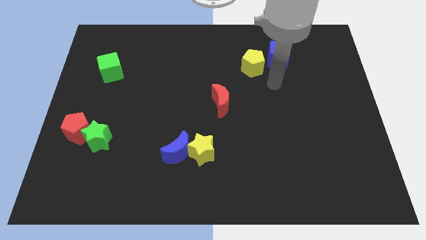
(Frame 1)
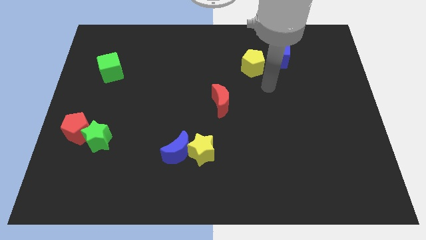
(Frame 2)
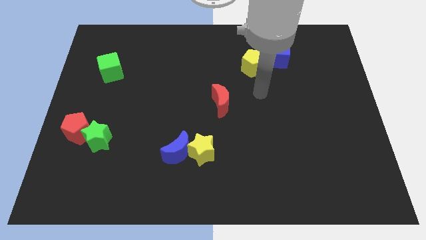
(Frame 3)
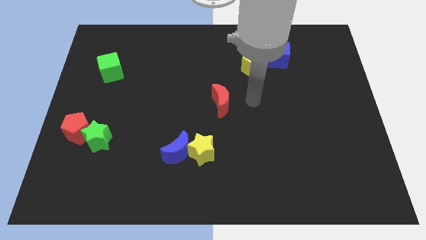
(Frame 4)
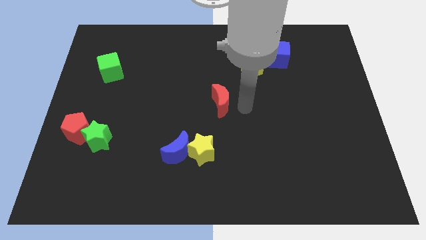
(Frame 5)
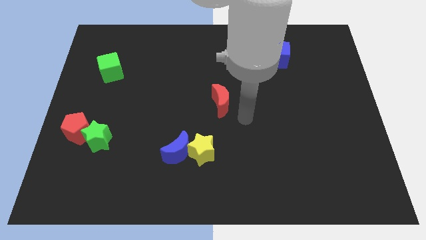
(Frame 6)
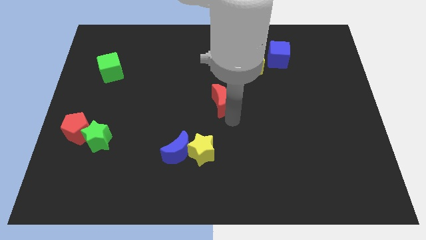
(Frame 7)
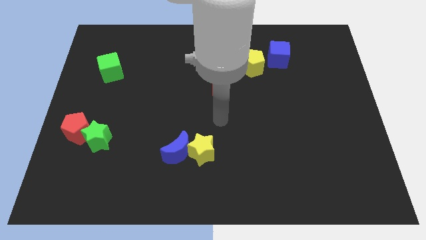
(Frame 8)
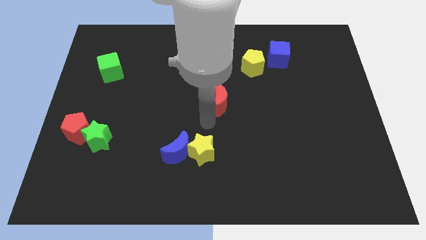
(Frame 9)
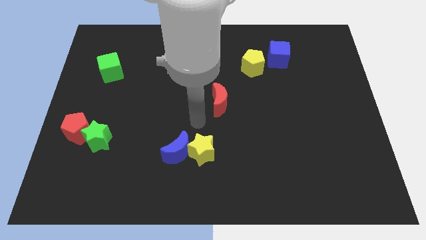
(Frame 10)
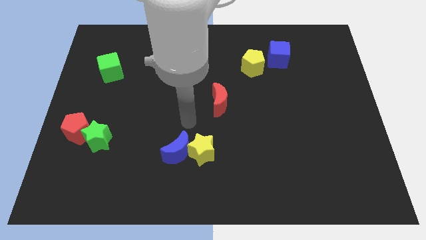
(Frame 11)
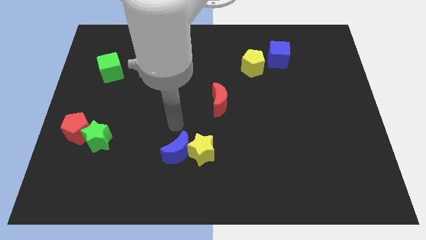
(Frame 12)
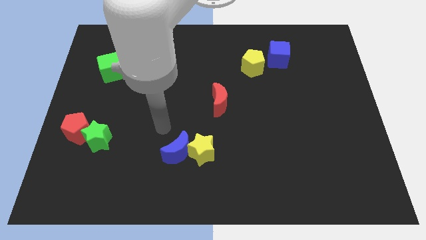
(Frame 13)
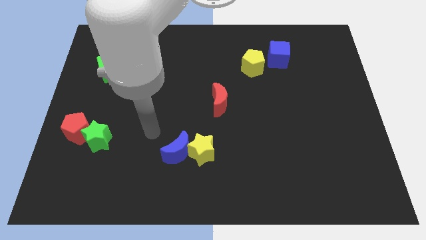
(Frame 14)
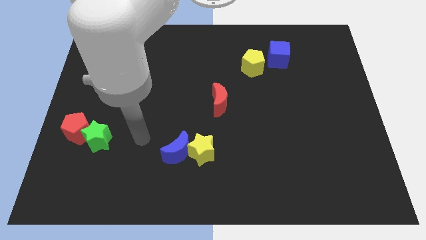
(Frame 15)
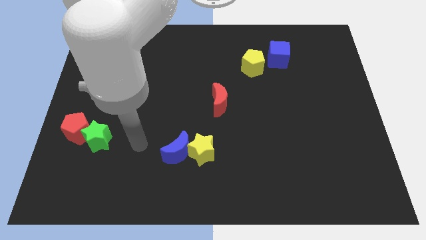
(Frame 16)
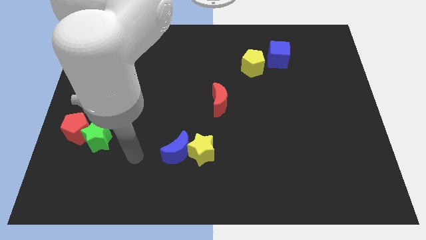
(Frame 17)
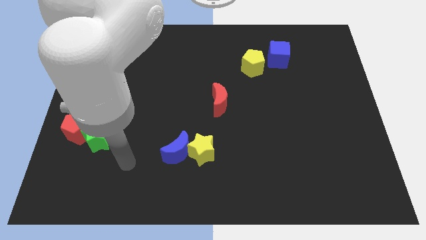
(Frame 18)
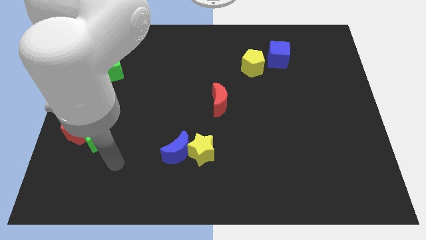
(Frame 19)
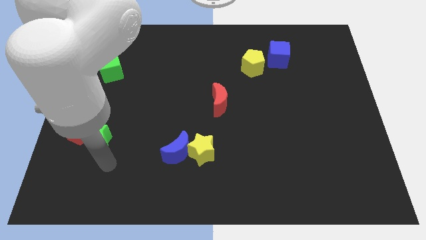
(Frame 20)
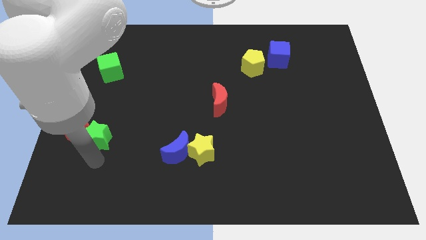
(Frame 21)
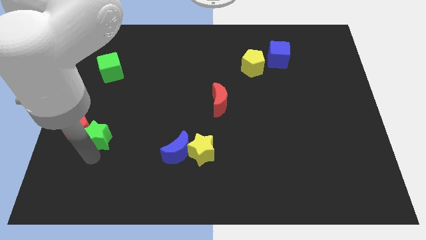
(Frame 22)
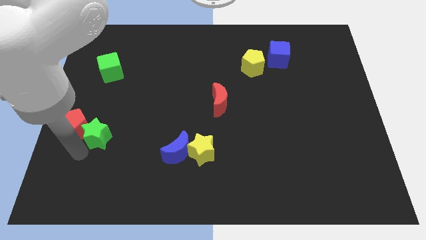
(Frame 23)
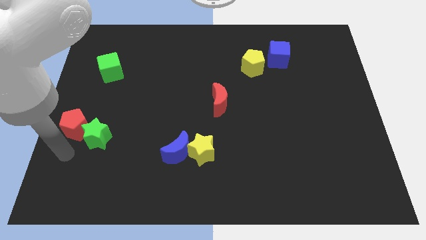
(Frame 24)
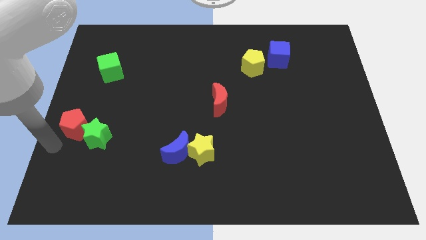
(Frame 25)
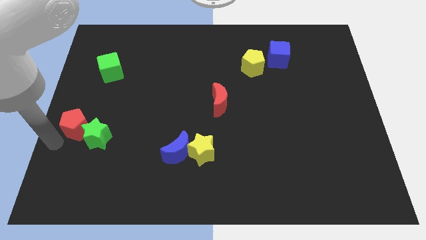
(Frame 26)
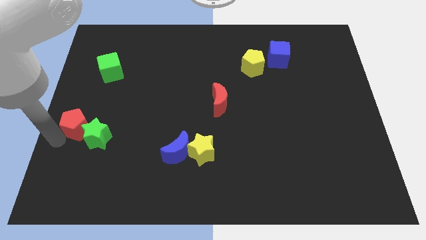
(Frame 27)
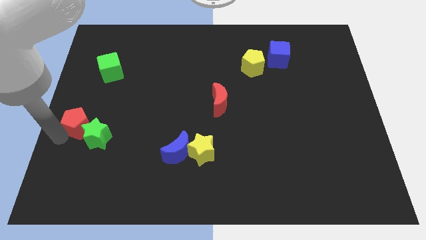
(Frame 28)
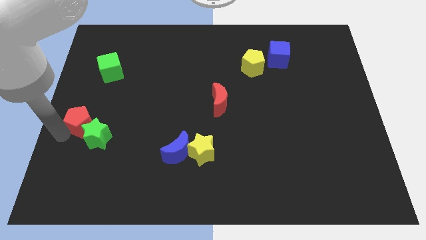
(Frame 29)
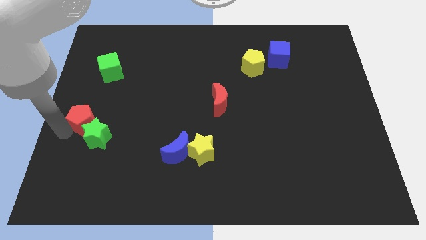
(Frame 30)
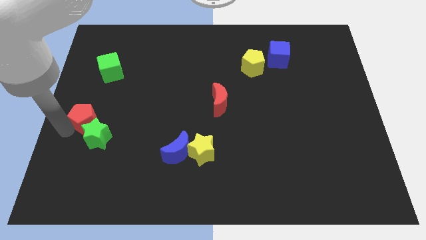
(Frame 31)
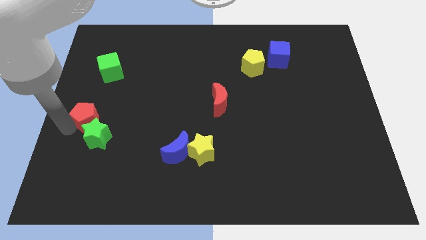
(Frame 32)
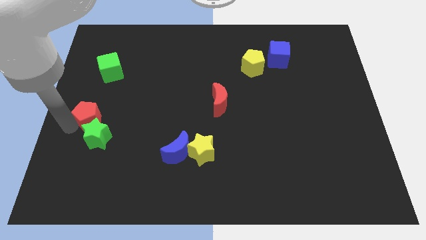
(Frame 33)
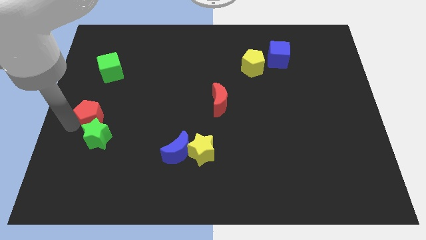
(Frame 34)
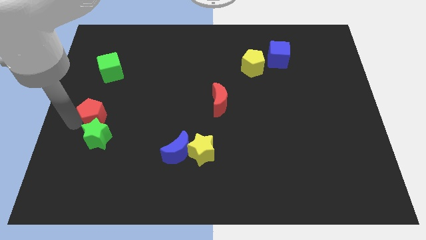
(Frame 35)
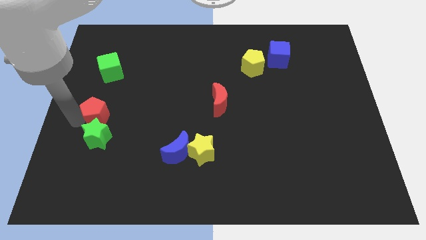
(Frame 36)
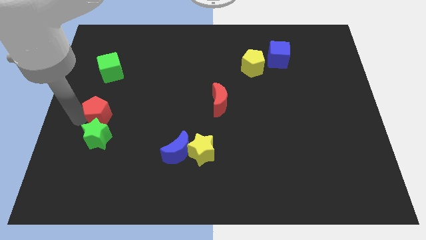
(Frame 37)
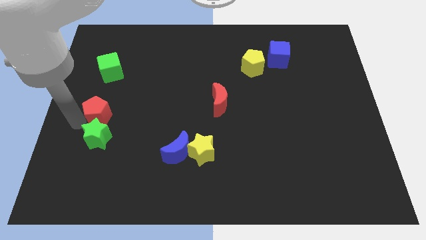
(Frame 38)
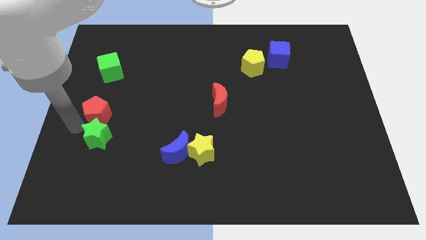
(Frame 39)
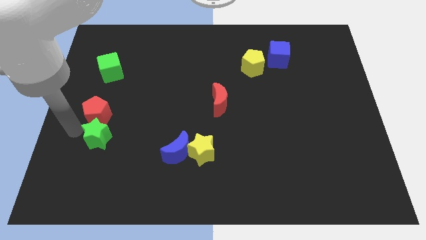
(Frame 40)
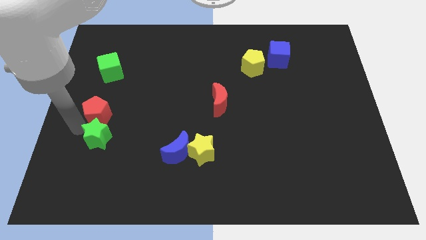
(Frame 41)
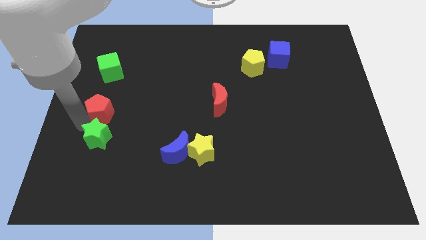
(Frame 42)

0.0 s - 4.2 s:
move the red pentagon up and then to the right somewhat

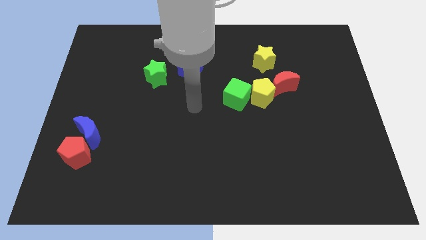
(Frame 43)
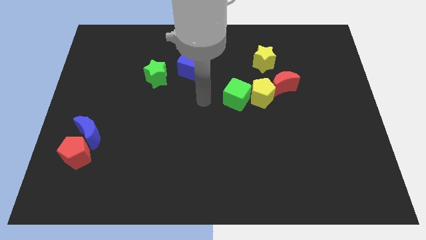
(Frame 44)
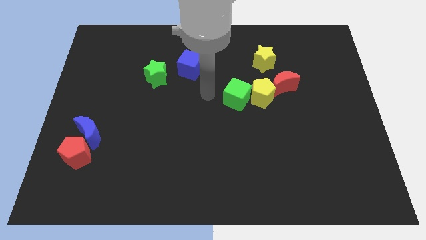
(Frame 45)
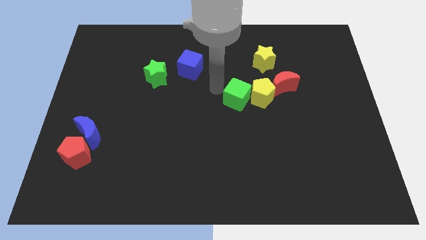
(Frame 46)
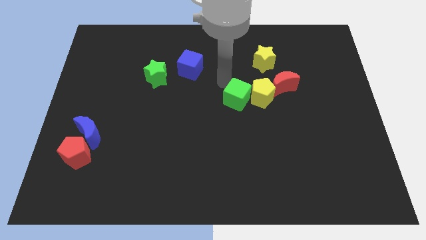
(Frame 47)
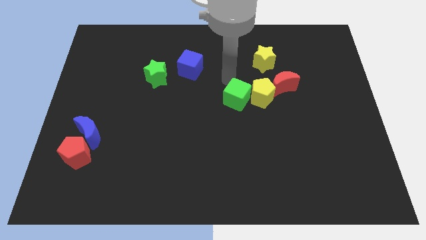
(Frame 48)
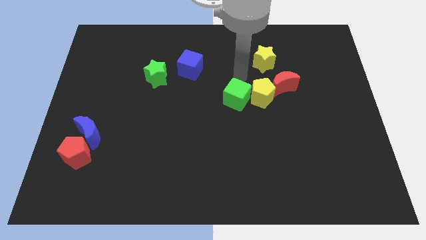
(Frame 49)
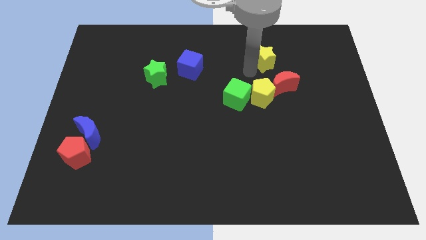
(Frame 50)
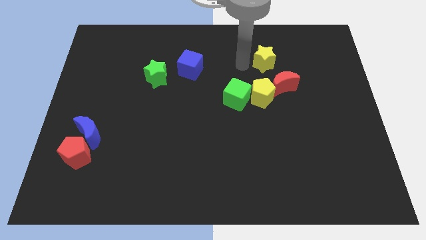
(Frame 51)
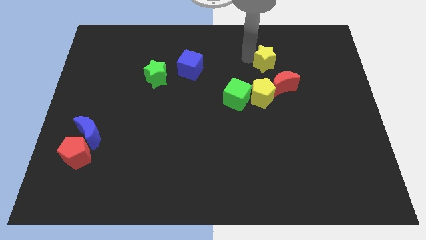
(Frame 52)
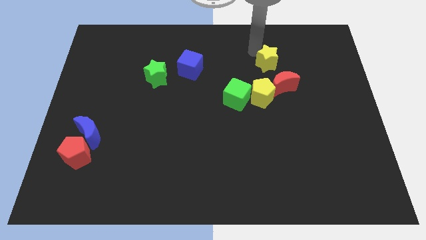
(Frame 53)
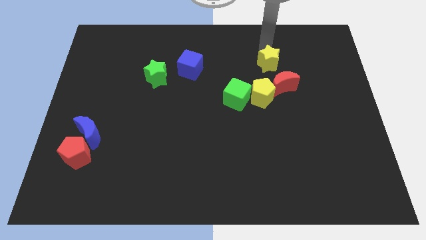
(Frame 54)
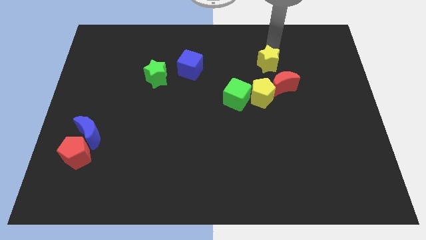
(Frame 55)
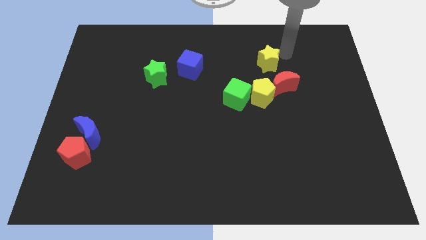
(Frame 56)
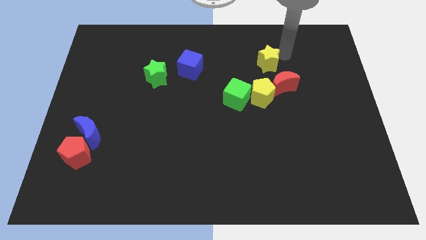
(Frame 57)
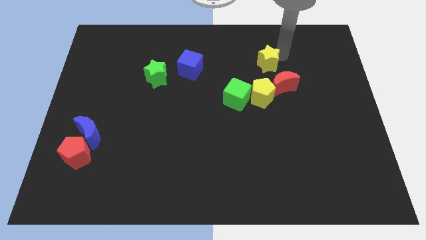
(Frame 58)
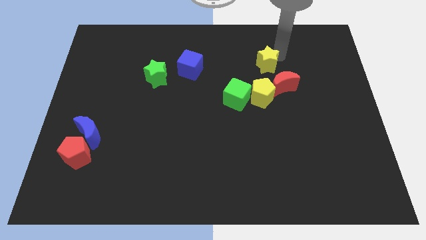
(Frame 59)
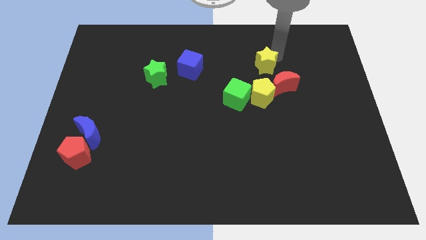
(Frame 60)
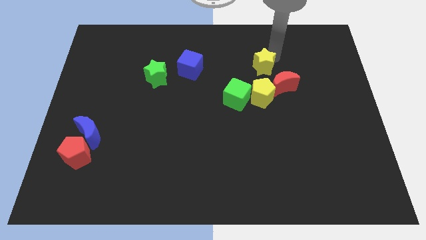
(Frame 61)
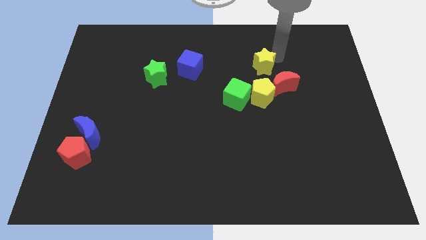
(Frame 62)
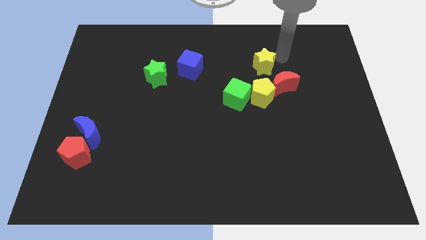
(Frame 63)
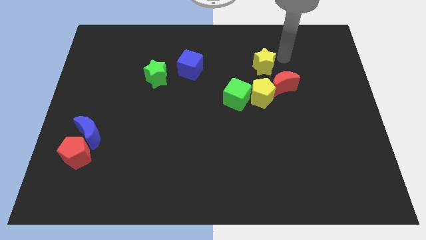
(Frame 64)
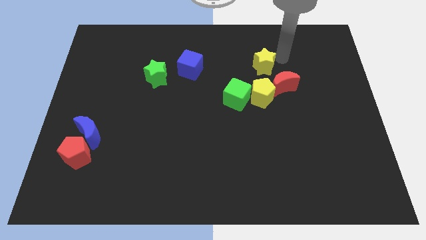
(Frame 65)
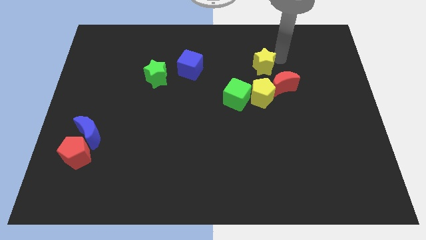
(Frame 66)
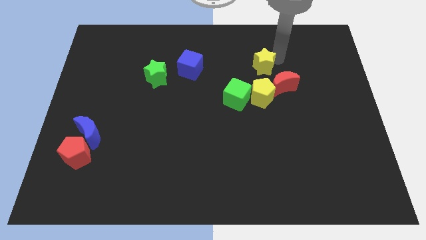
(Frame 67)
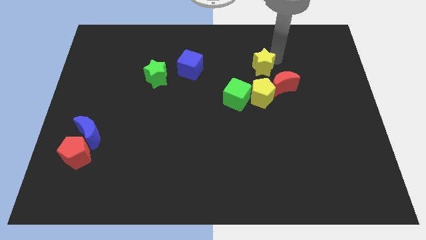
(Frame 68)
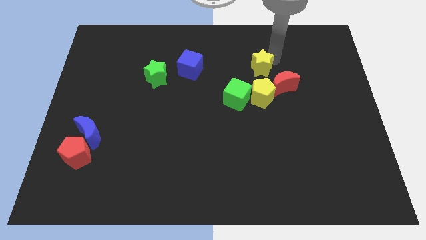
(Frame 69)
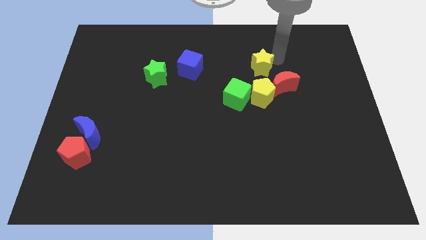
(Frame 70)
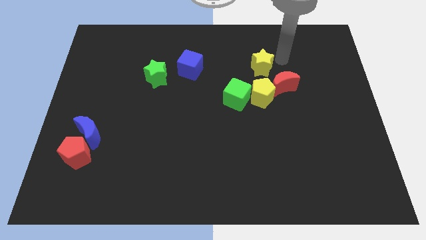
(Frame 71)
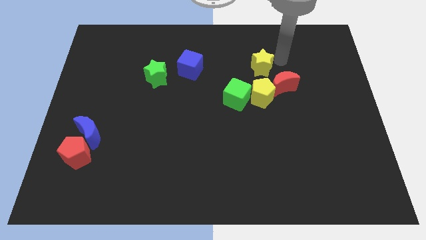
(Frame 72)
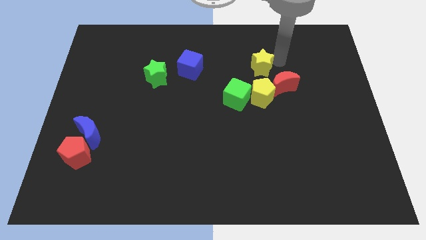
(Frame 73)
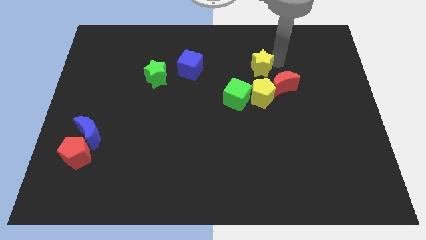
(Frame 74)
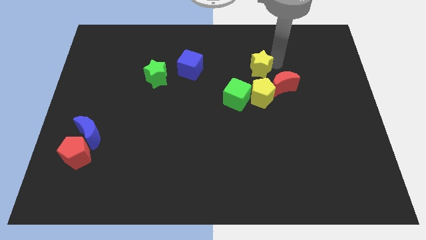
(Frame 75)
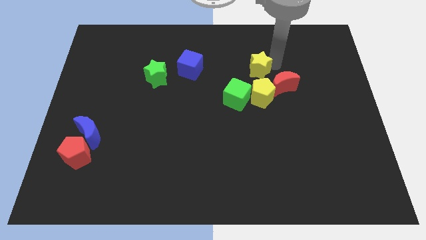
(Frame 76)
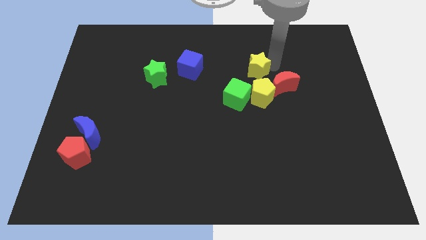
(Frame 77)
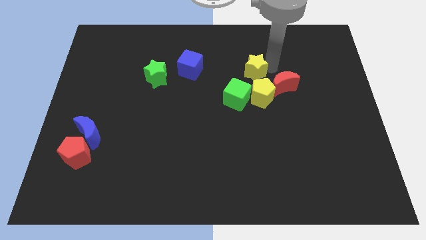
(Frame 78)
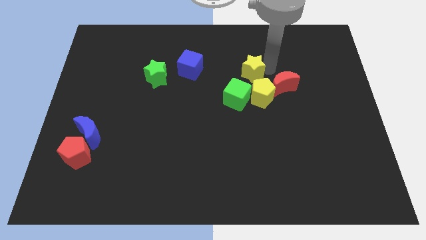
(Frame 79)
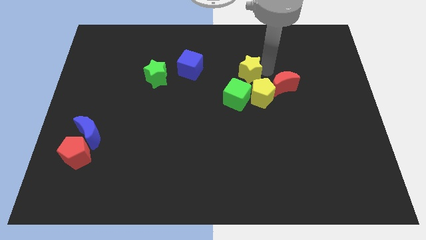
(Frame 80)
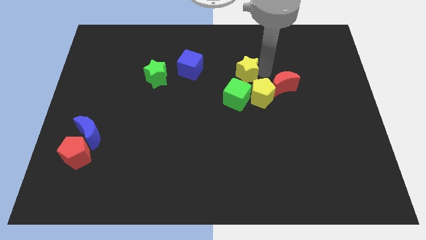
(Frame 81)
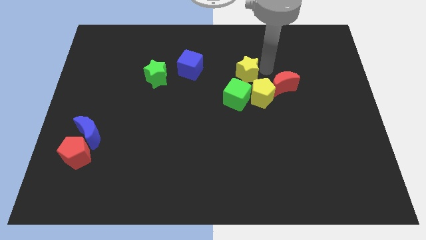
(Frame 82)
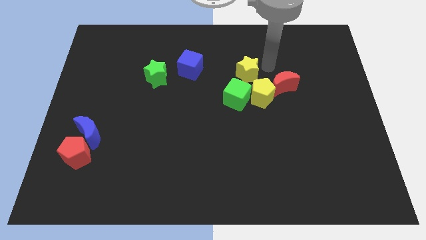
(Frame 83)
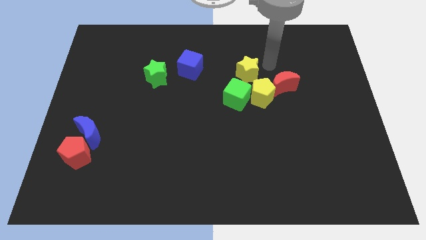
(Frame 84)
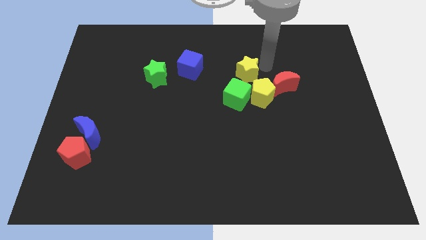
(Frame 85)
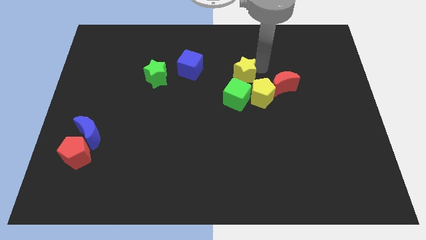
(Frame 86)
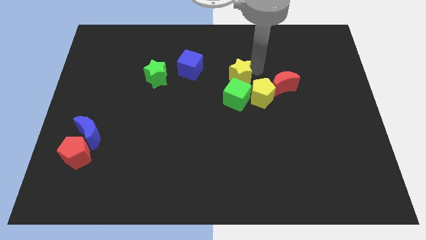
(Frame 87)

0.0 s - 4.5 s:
slightly move the yellow star down and then left
